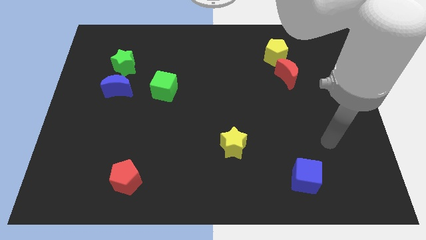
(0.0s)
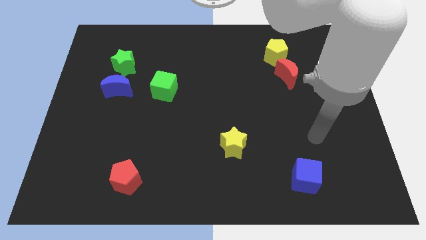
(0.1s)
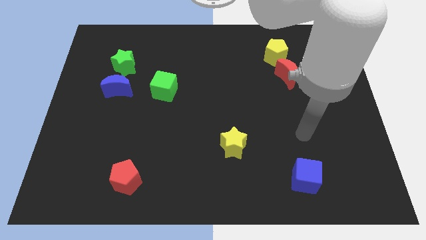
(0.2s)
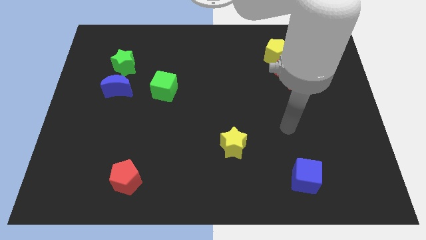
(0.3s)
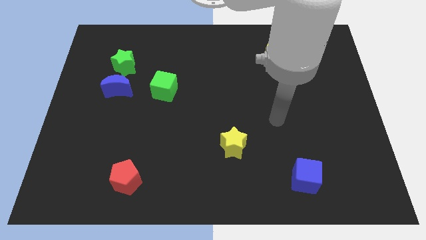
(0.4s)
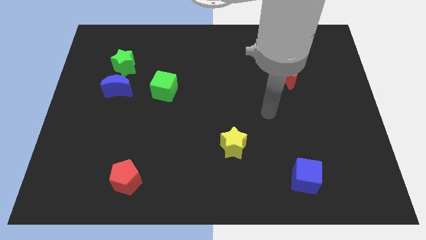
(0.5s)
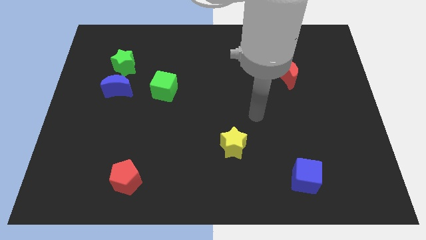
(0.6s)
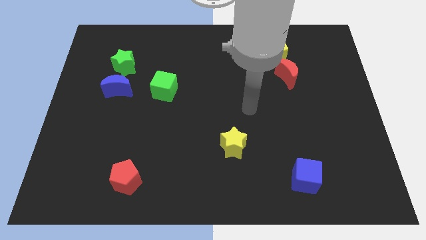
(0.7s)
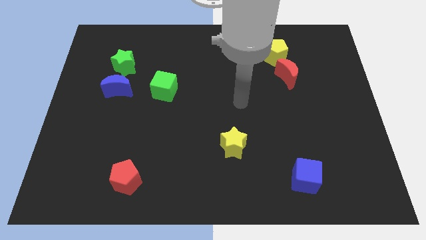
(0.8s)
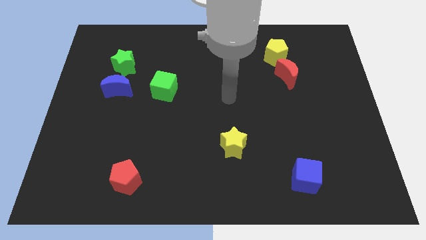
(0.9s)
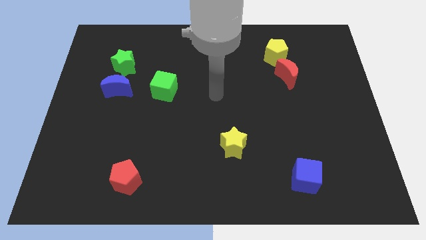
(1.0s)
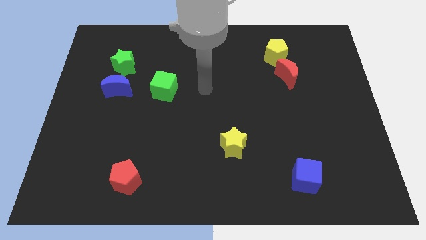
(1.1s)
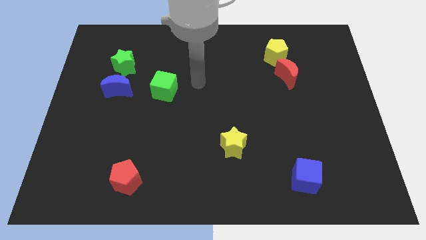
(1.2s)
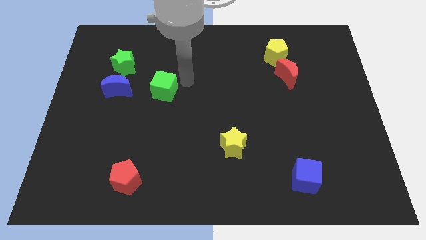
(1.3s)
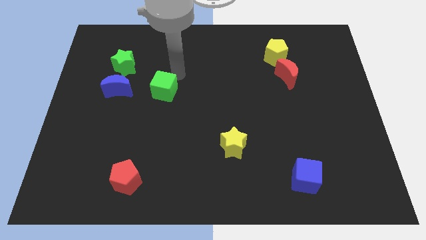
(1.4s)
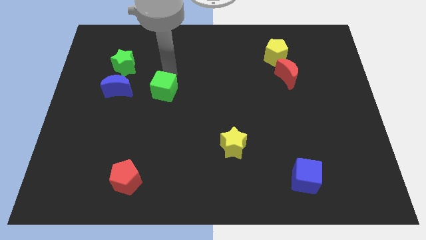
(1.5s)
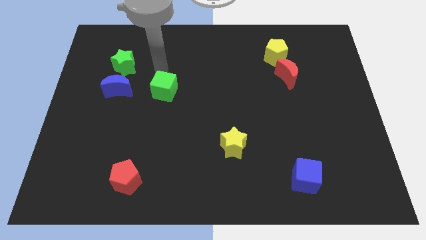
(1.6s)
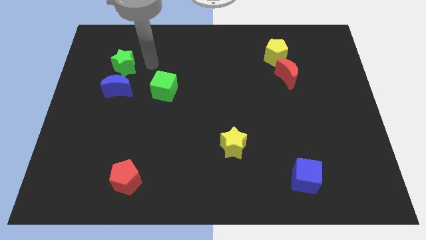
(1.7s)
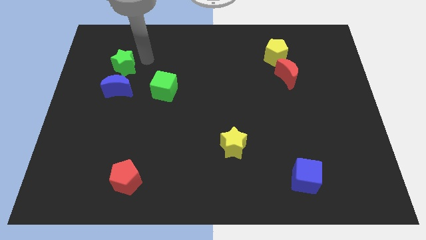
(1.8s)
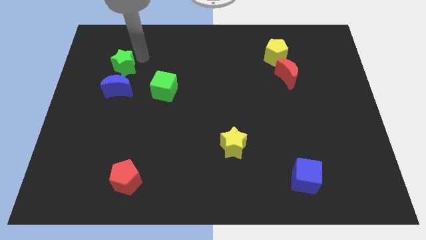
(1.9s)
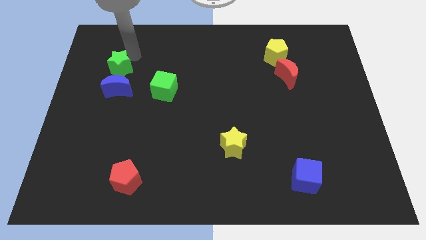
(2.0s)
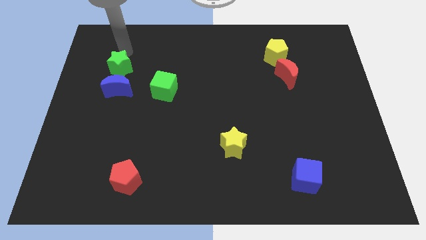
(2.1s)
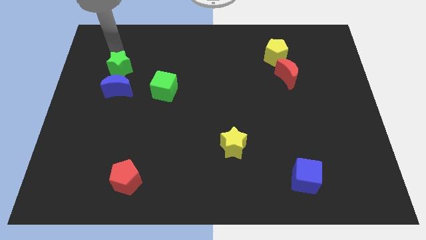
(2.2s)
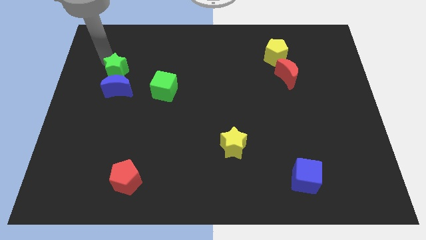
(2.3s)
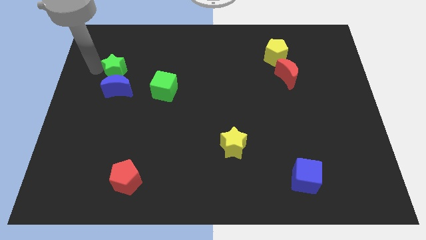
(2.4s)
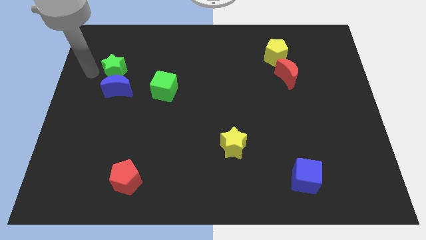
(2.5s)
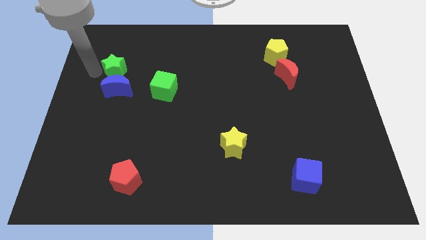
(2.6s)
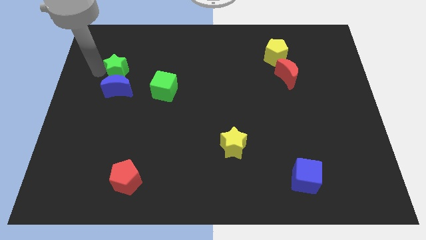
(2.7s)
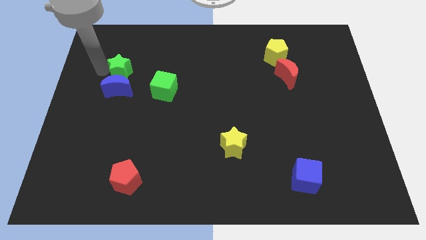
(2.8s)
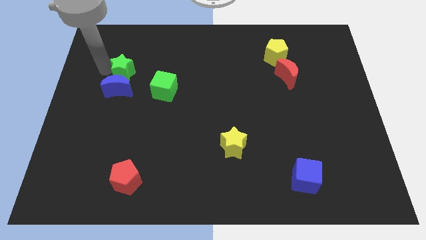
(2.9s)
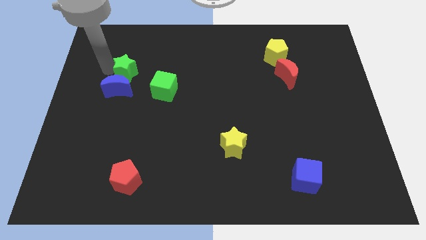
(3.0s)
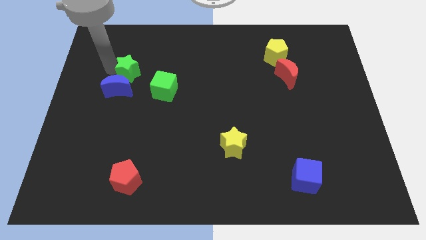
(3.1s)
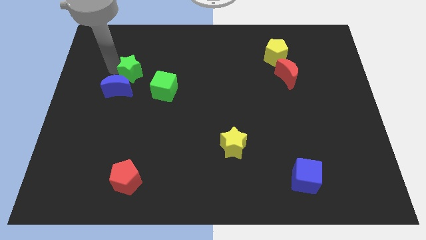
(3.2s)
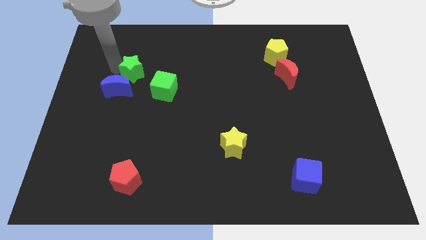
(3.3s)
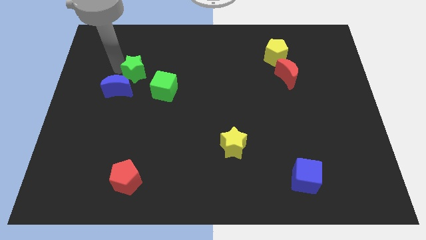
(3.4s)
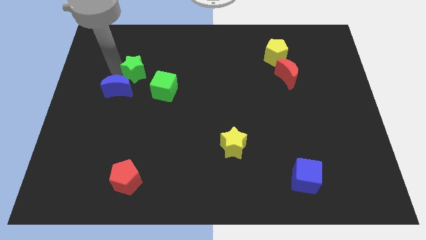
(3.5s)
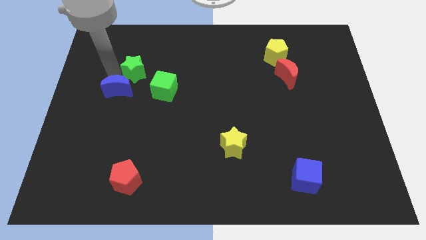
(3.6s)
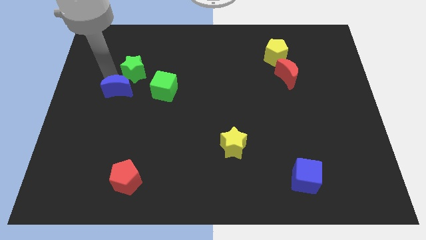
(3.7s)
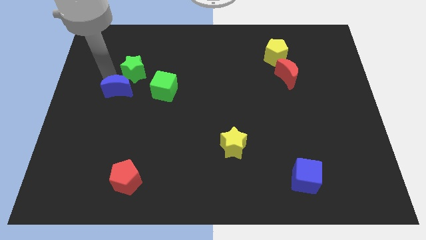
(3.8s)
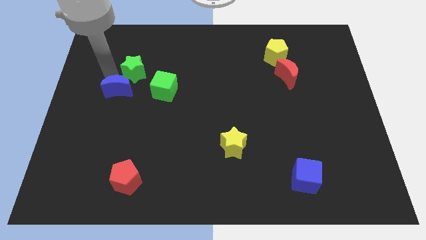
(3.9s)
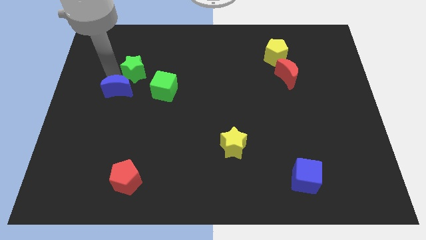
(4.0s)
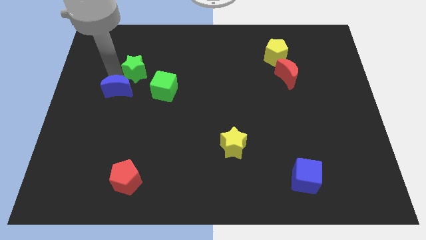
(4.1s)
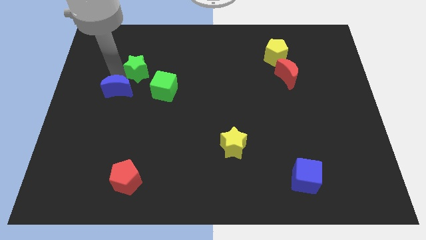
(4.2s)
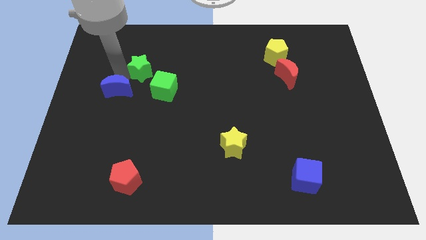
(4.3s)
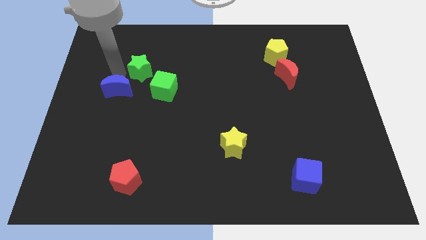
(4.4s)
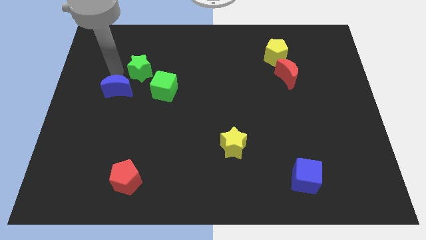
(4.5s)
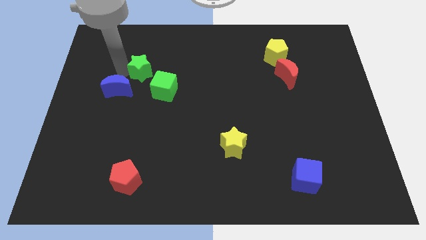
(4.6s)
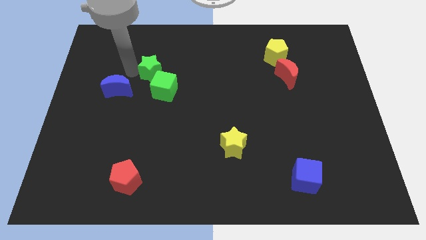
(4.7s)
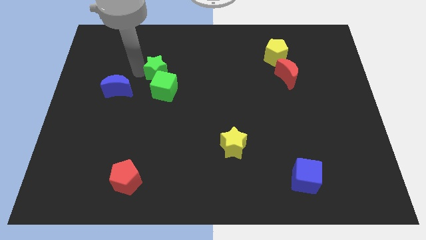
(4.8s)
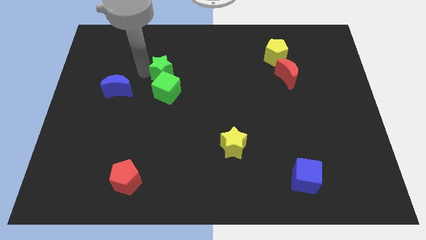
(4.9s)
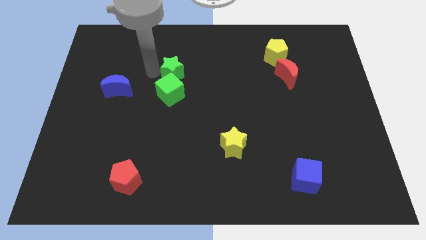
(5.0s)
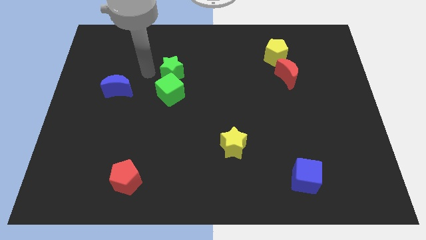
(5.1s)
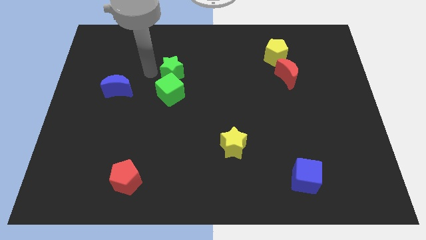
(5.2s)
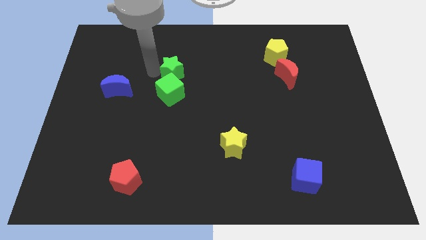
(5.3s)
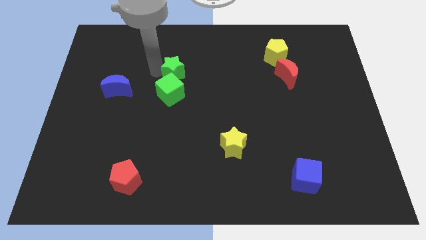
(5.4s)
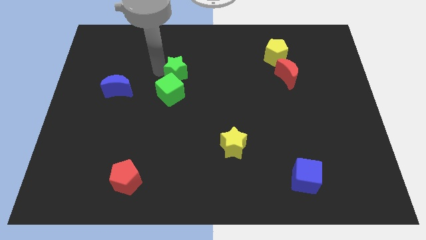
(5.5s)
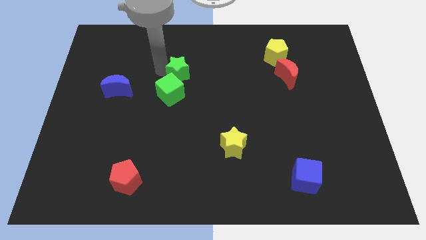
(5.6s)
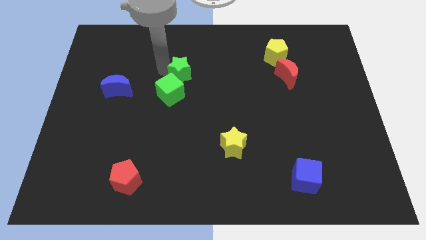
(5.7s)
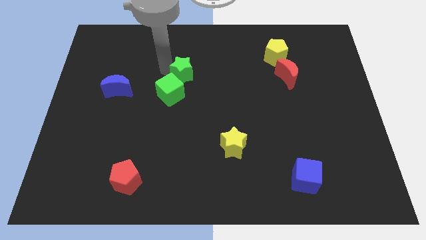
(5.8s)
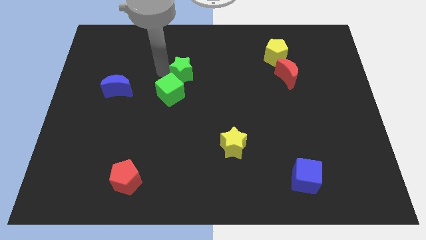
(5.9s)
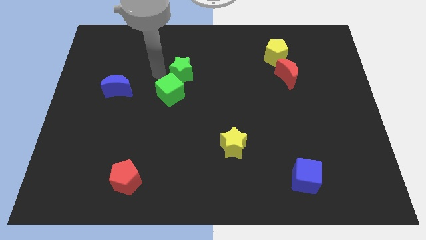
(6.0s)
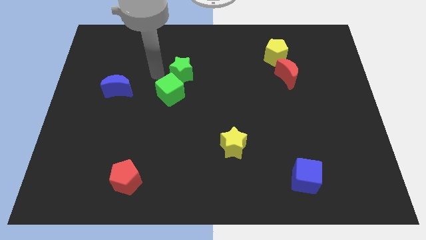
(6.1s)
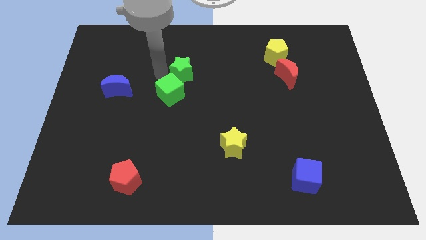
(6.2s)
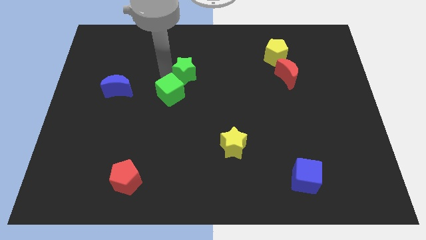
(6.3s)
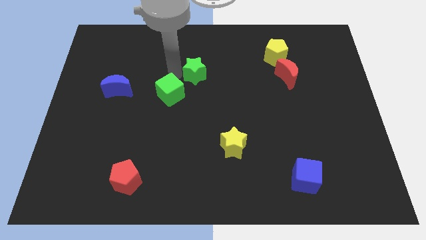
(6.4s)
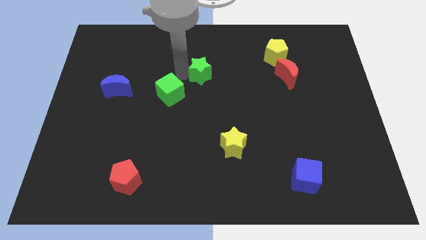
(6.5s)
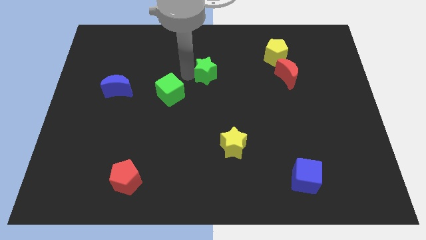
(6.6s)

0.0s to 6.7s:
slide the green star to the right

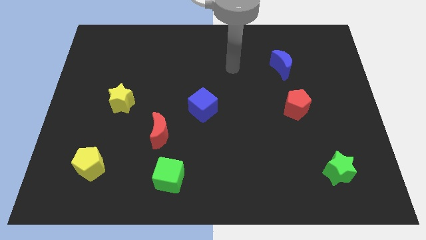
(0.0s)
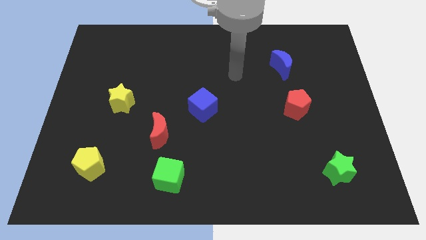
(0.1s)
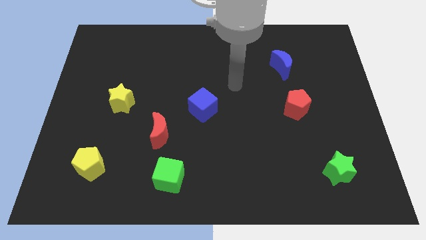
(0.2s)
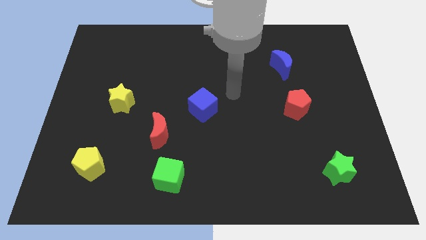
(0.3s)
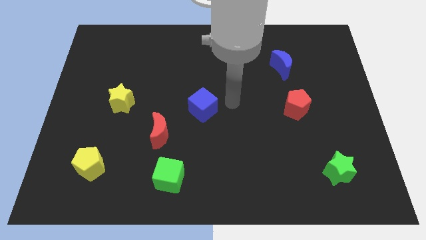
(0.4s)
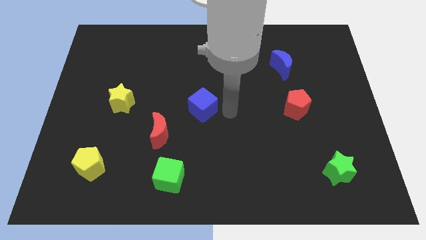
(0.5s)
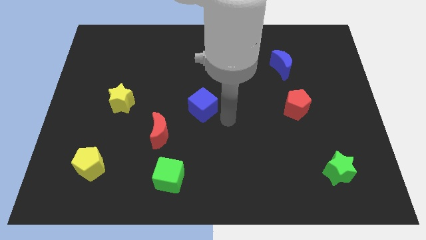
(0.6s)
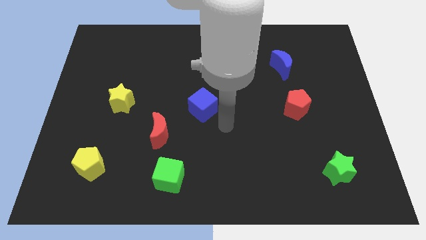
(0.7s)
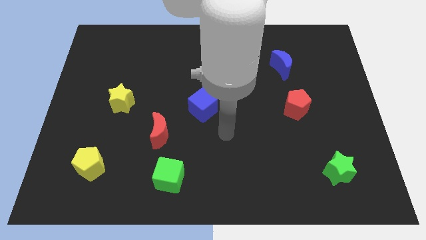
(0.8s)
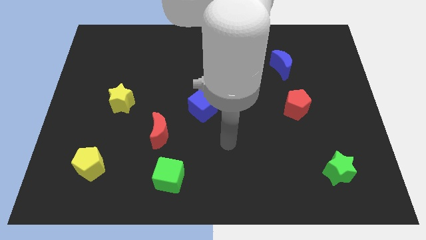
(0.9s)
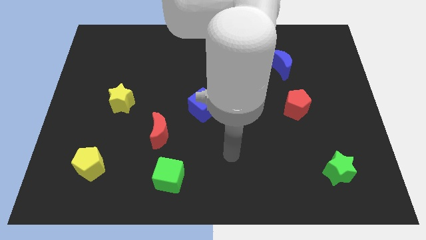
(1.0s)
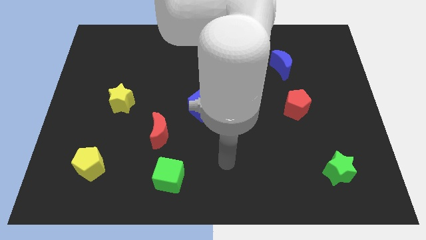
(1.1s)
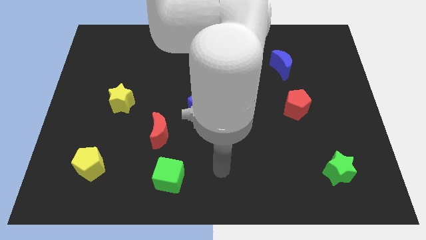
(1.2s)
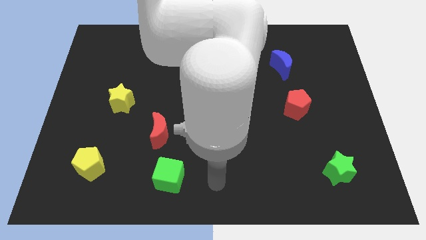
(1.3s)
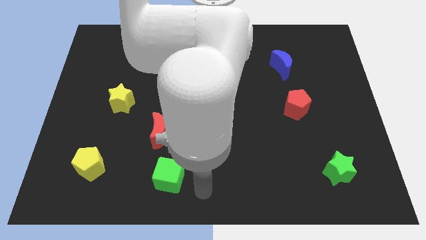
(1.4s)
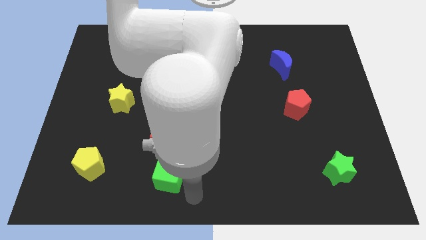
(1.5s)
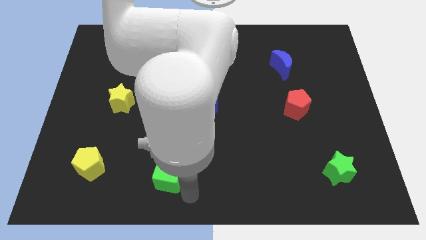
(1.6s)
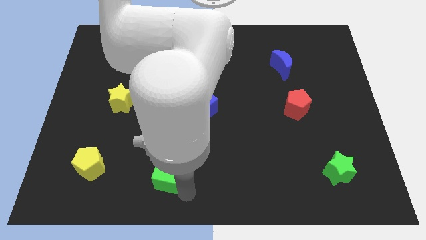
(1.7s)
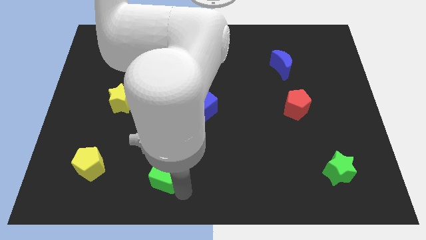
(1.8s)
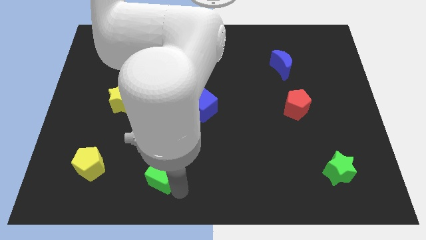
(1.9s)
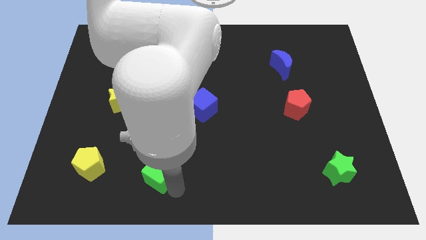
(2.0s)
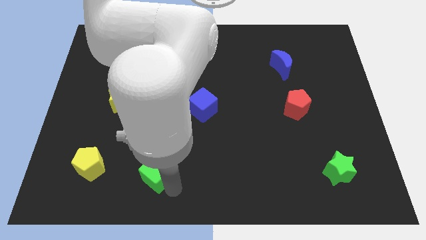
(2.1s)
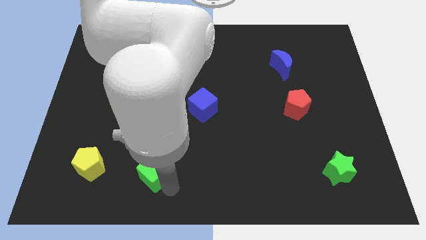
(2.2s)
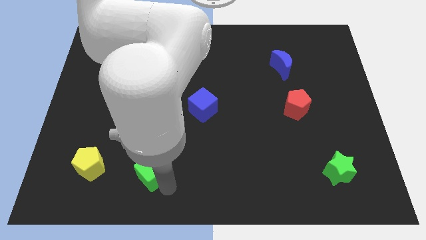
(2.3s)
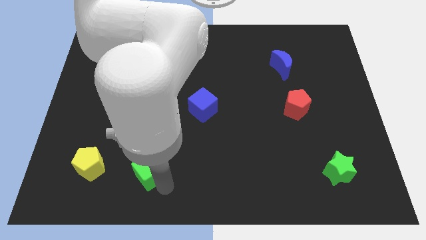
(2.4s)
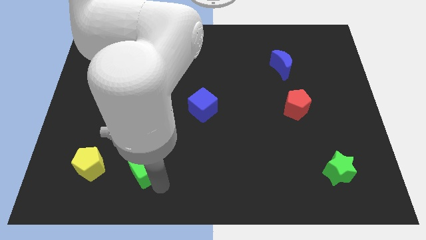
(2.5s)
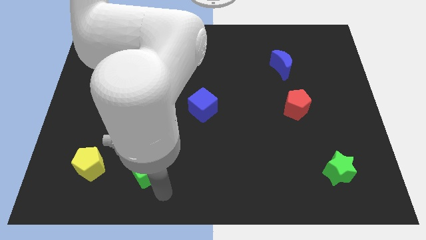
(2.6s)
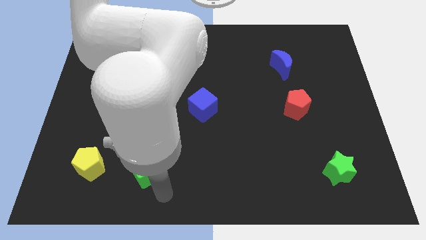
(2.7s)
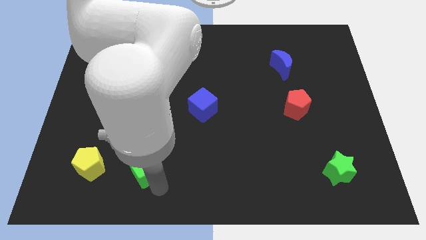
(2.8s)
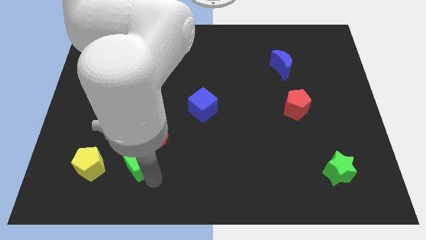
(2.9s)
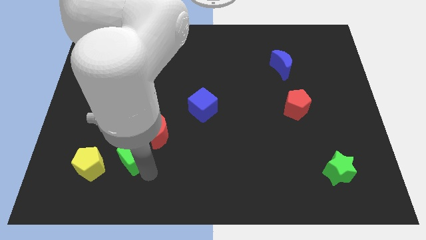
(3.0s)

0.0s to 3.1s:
slightly push the green cube up and then to the left
